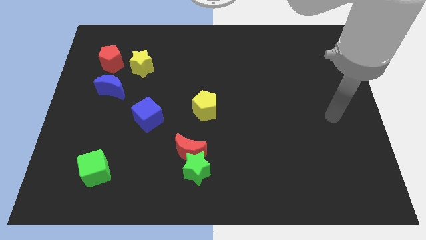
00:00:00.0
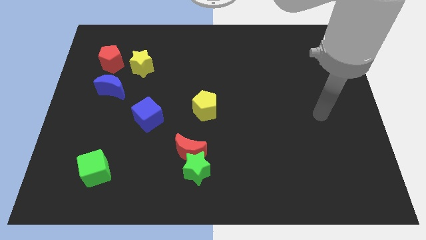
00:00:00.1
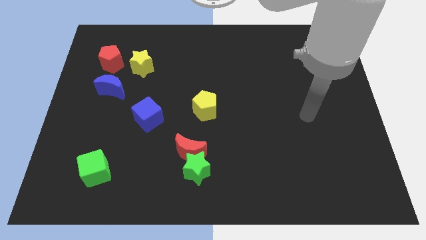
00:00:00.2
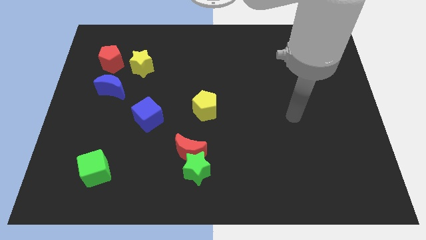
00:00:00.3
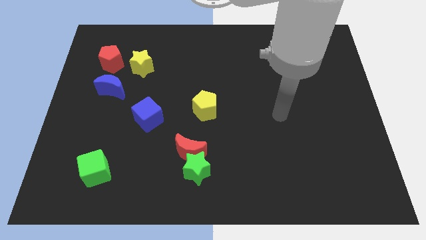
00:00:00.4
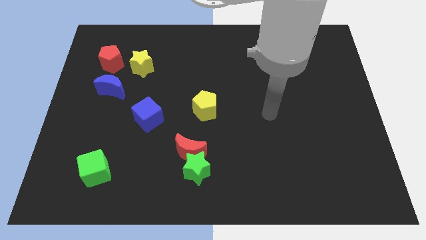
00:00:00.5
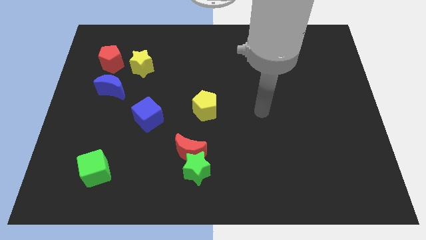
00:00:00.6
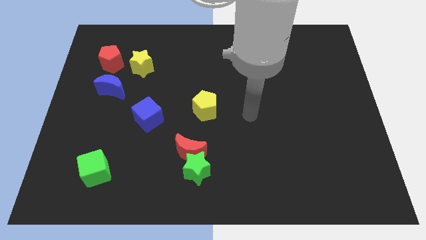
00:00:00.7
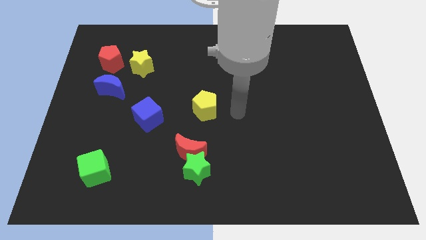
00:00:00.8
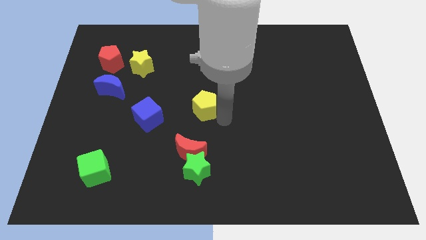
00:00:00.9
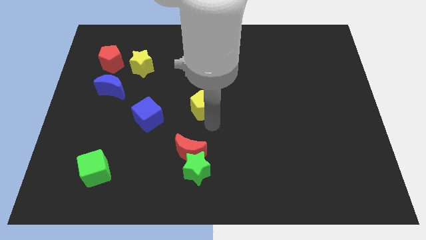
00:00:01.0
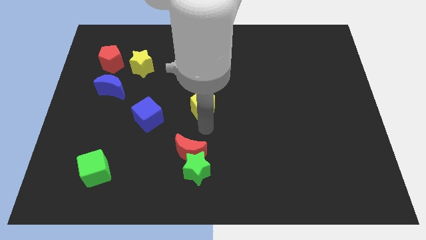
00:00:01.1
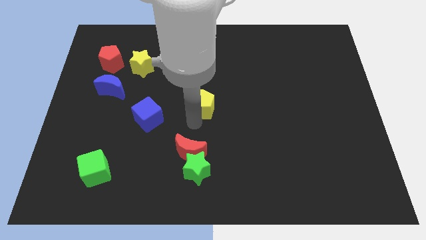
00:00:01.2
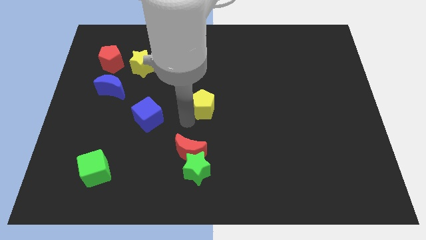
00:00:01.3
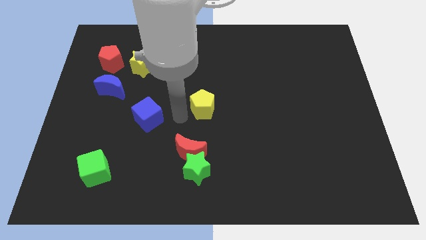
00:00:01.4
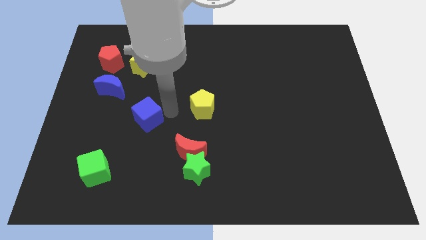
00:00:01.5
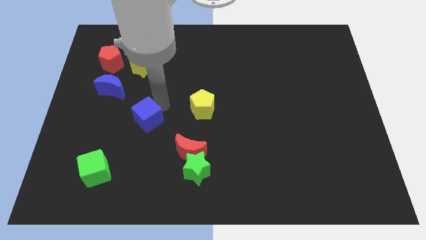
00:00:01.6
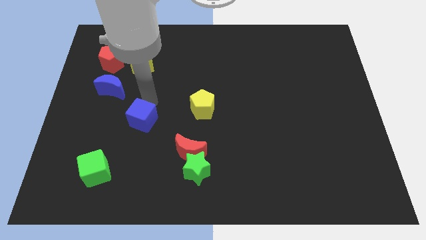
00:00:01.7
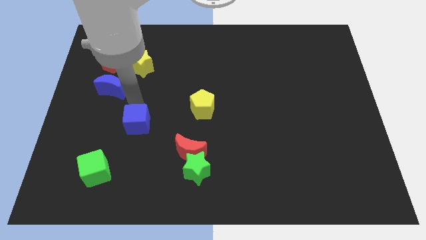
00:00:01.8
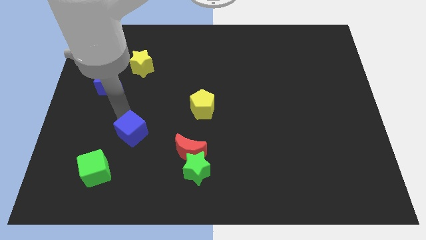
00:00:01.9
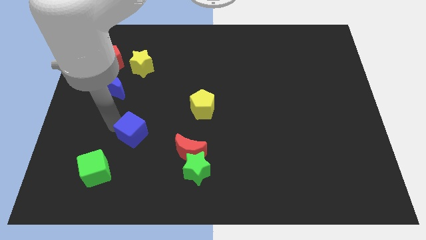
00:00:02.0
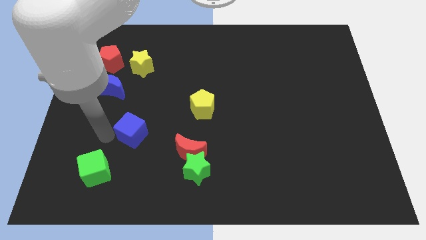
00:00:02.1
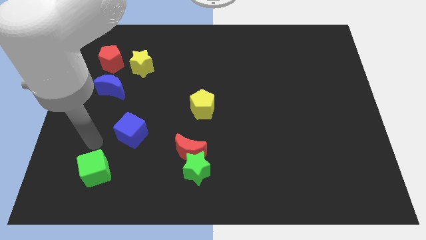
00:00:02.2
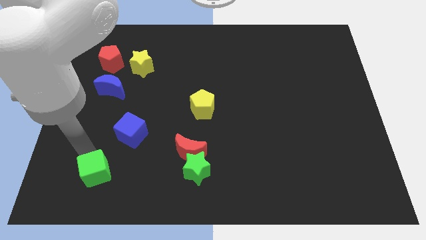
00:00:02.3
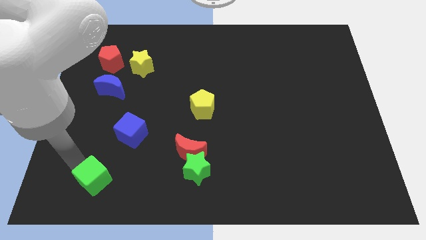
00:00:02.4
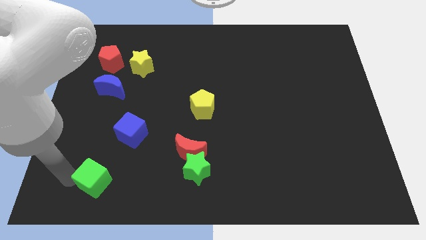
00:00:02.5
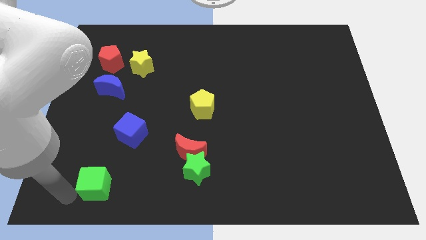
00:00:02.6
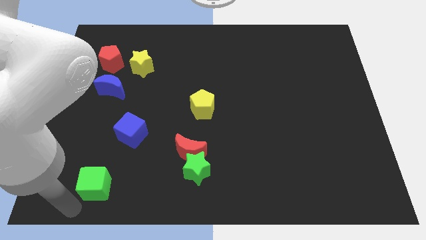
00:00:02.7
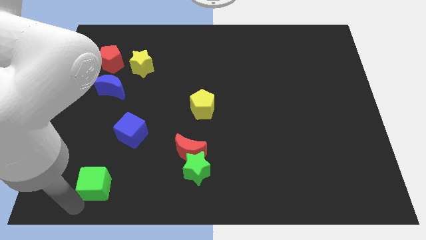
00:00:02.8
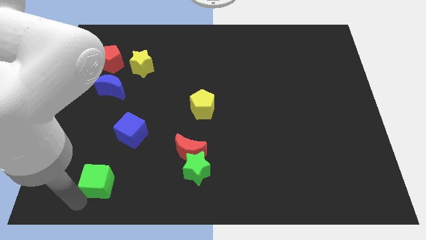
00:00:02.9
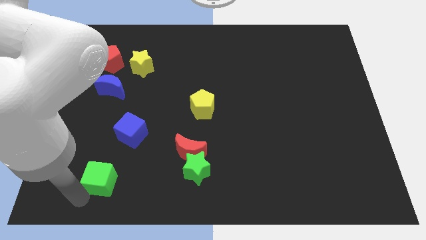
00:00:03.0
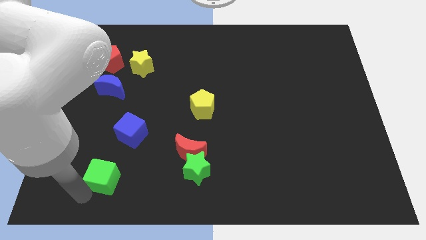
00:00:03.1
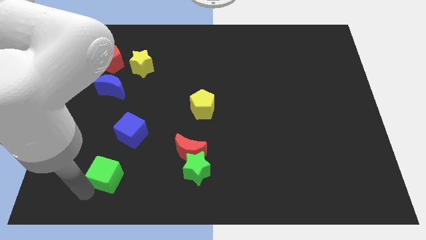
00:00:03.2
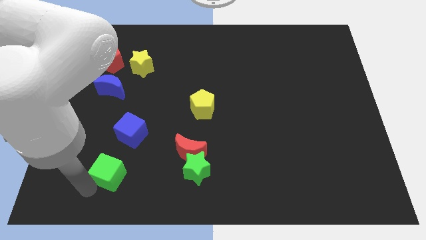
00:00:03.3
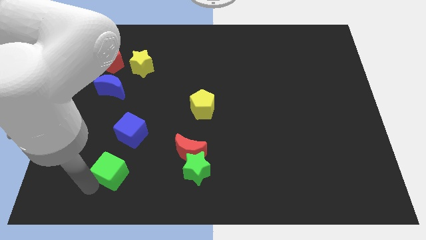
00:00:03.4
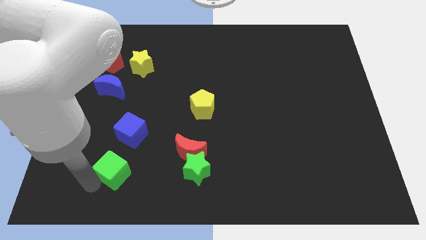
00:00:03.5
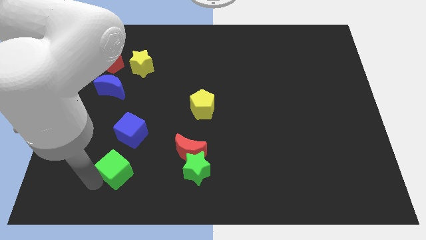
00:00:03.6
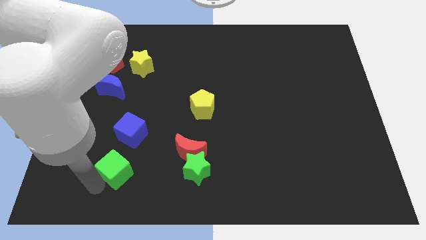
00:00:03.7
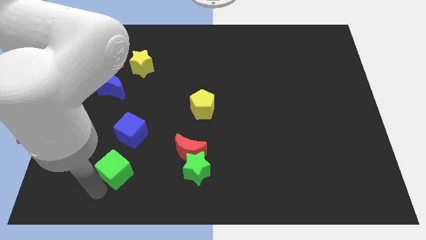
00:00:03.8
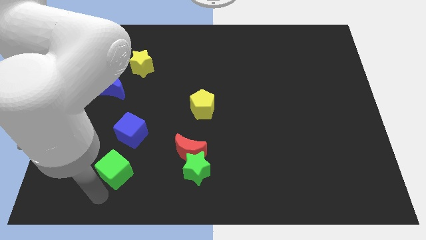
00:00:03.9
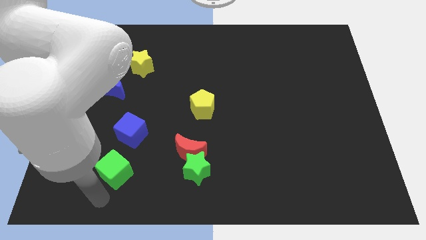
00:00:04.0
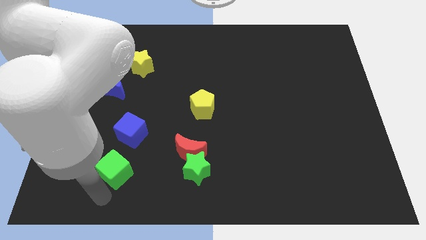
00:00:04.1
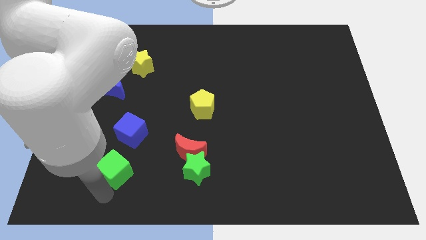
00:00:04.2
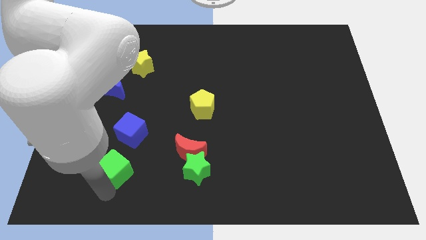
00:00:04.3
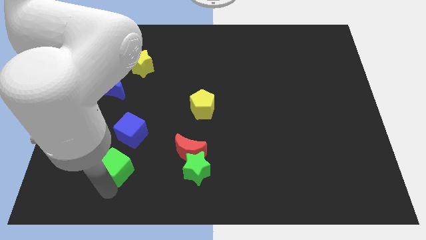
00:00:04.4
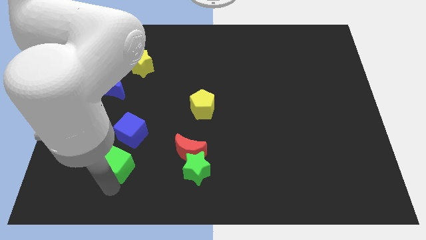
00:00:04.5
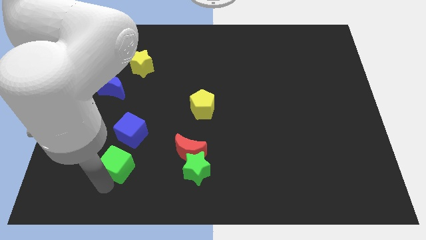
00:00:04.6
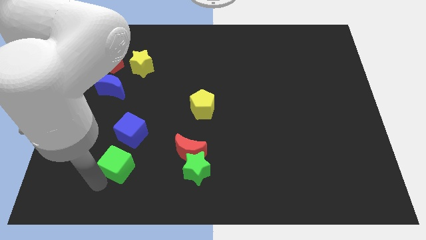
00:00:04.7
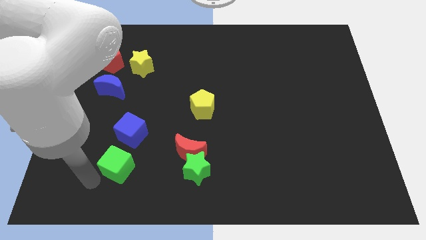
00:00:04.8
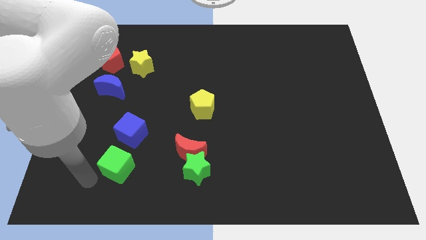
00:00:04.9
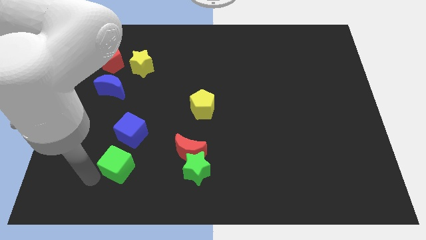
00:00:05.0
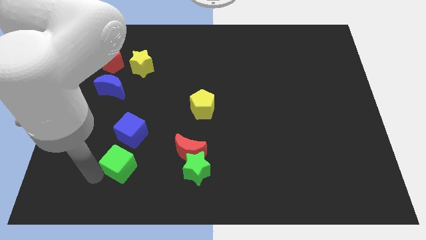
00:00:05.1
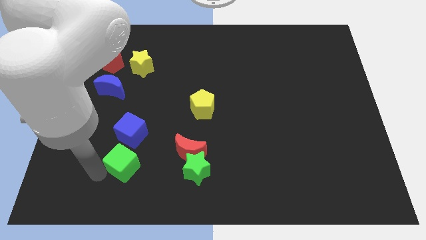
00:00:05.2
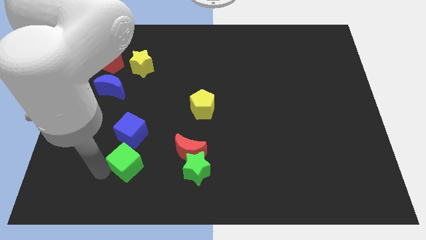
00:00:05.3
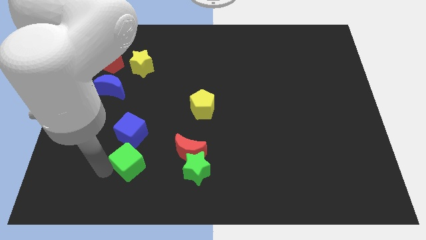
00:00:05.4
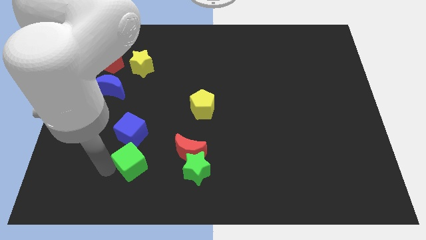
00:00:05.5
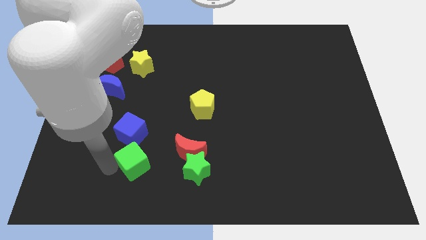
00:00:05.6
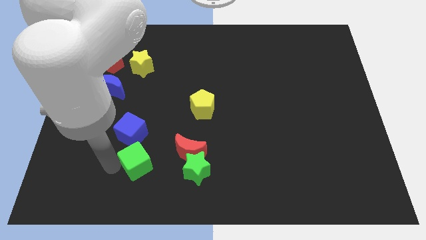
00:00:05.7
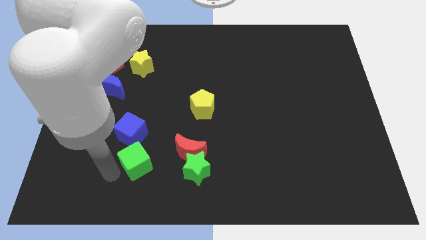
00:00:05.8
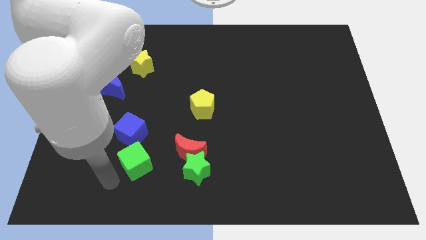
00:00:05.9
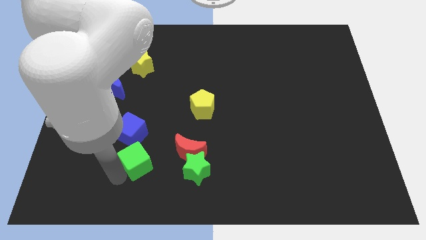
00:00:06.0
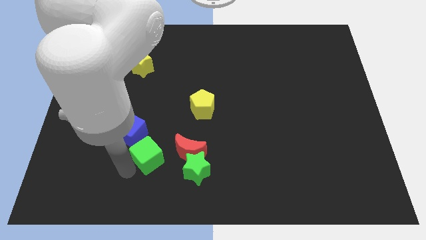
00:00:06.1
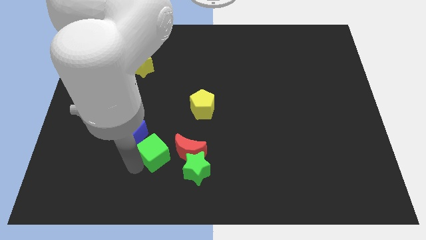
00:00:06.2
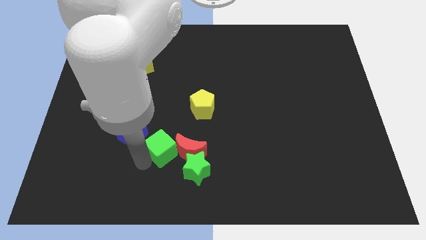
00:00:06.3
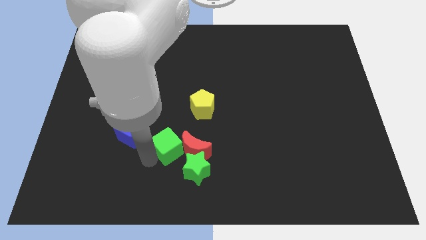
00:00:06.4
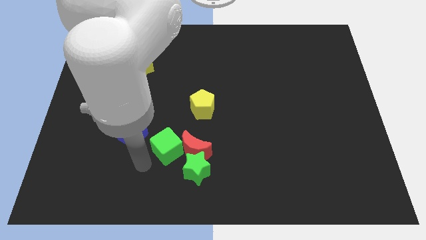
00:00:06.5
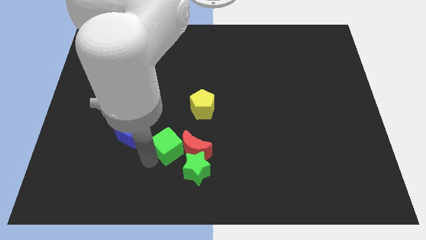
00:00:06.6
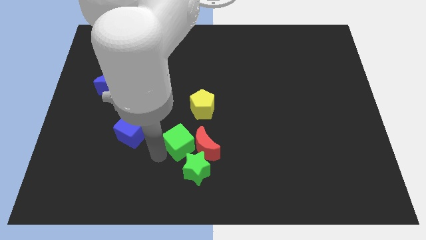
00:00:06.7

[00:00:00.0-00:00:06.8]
move the green cube to the top of the green star

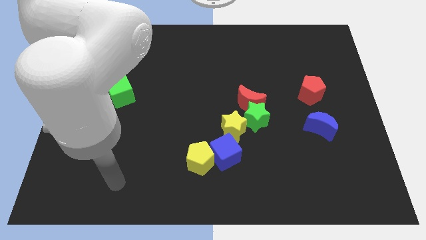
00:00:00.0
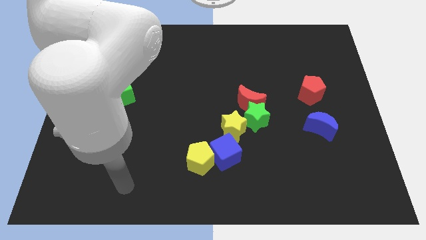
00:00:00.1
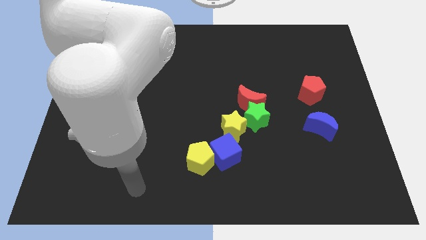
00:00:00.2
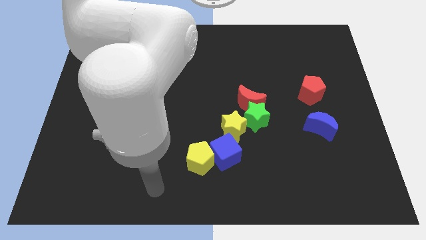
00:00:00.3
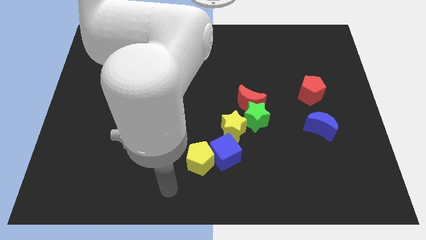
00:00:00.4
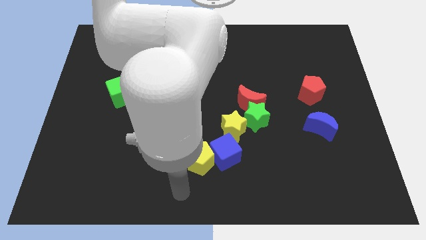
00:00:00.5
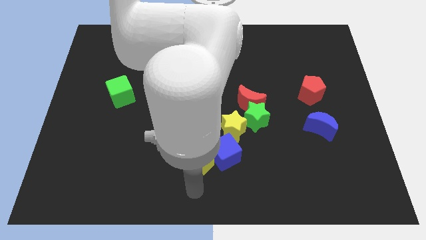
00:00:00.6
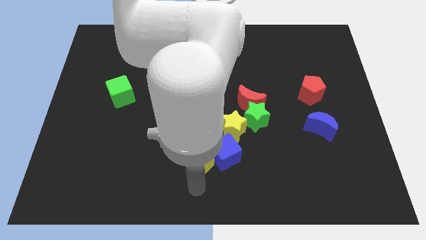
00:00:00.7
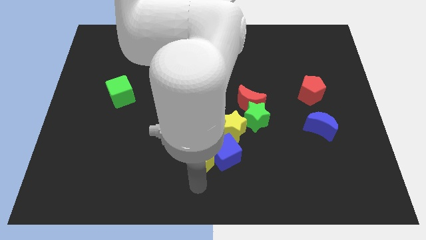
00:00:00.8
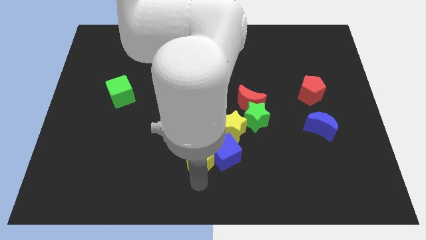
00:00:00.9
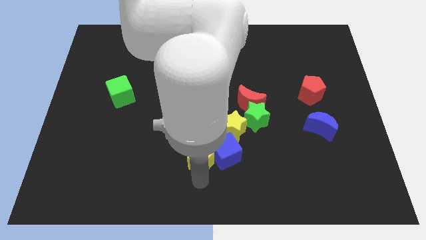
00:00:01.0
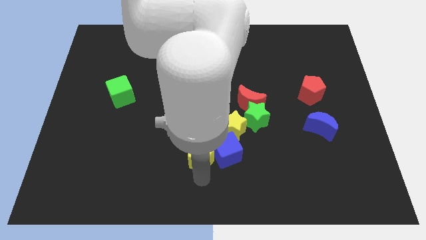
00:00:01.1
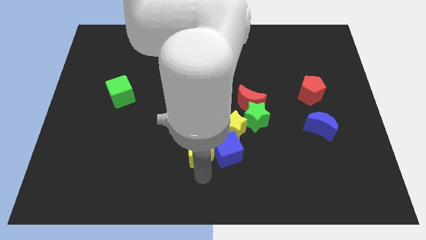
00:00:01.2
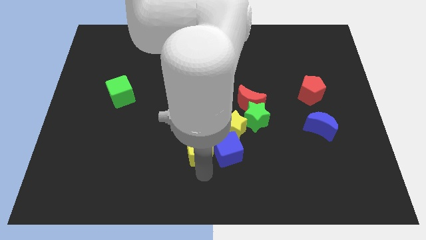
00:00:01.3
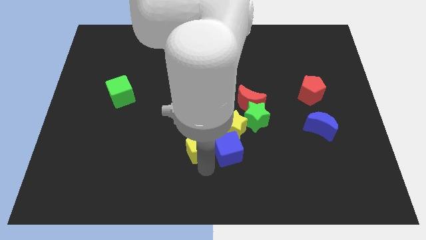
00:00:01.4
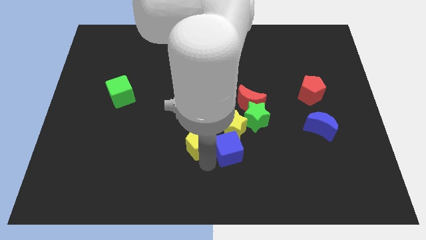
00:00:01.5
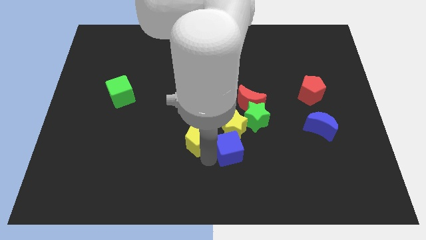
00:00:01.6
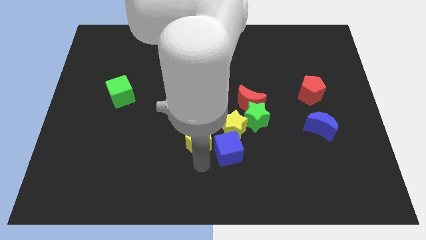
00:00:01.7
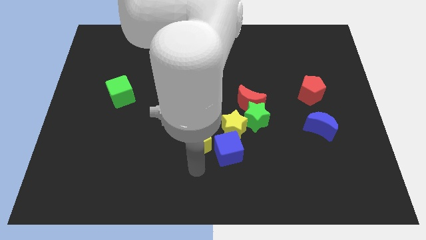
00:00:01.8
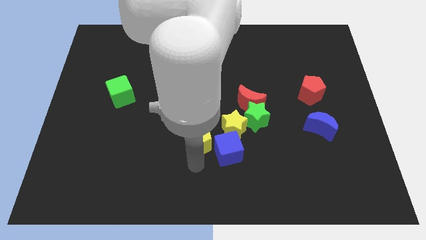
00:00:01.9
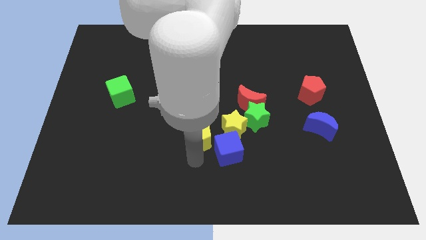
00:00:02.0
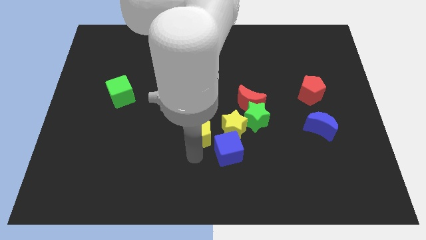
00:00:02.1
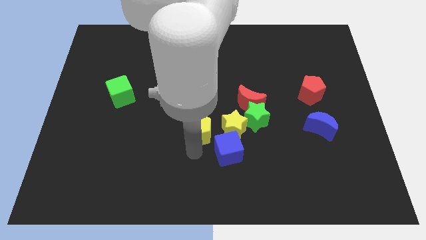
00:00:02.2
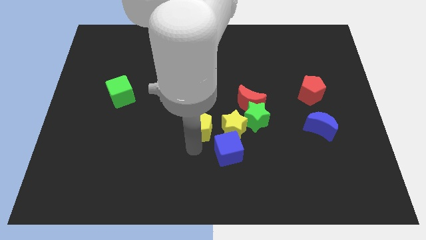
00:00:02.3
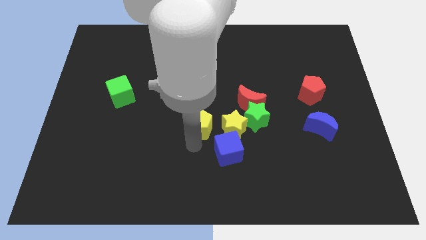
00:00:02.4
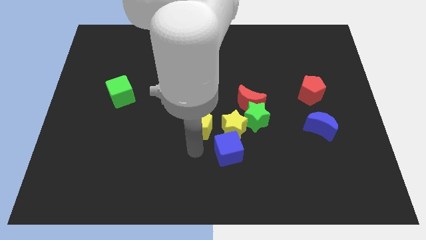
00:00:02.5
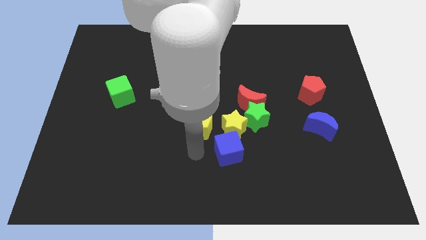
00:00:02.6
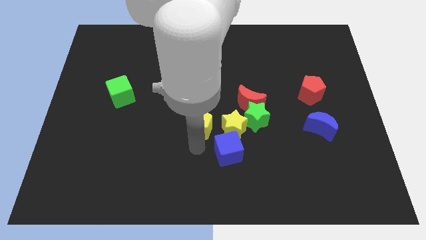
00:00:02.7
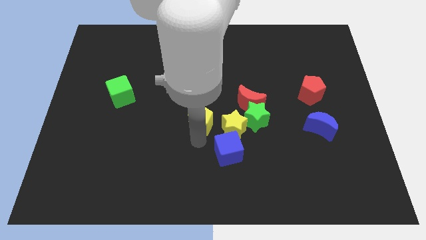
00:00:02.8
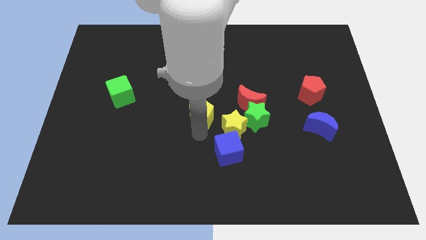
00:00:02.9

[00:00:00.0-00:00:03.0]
move the yellow pentagon to the left side of the red moon
